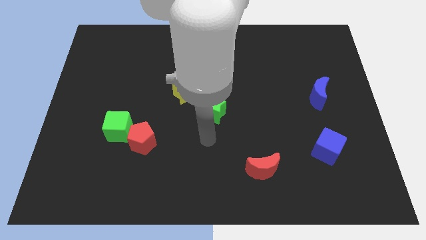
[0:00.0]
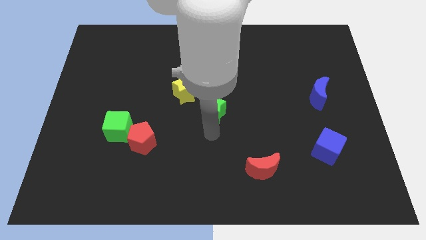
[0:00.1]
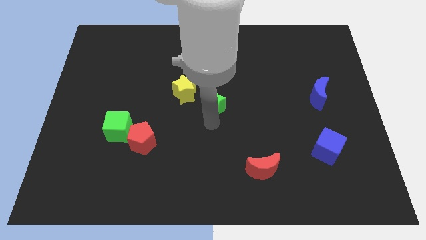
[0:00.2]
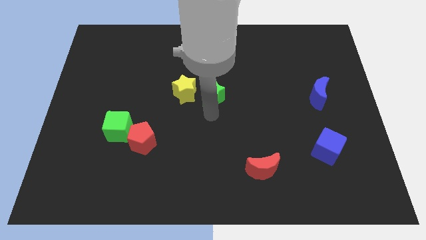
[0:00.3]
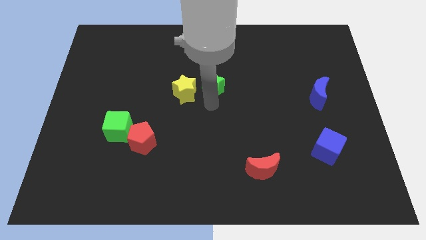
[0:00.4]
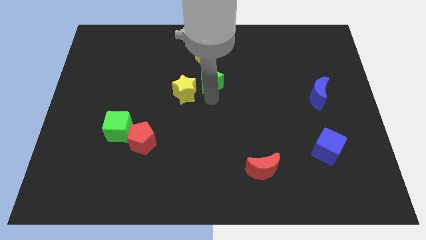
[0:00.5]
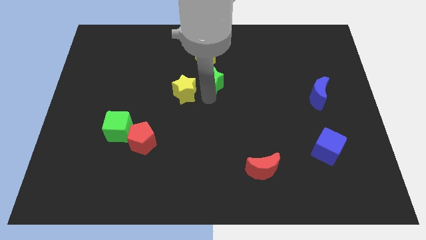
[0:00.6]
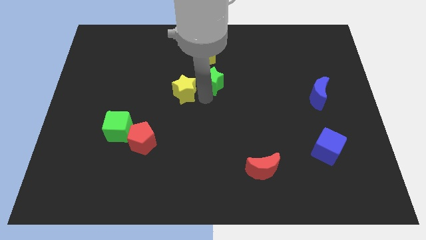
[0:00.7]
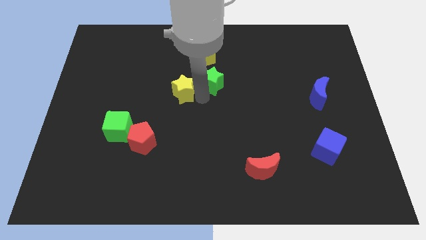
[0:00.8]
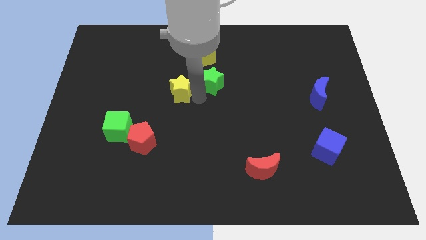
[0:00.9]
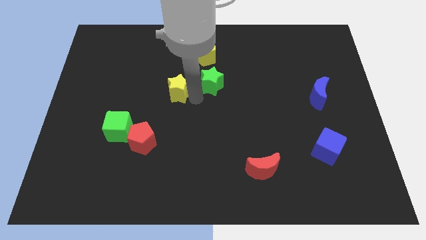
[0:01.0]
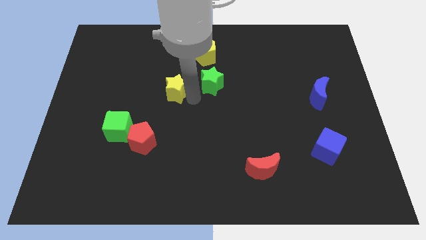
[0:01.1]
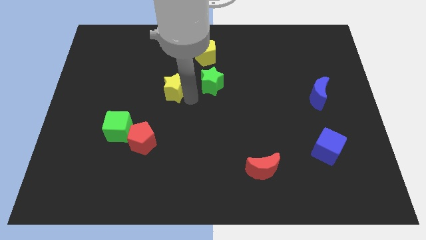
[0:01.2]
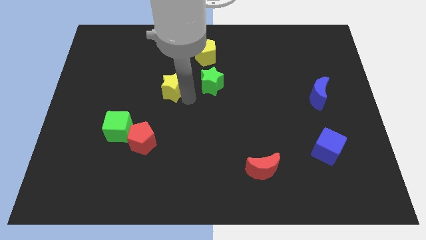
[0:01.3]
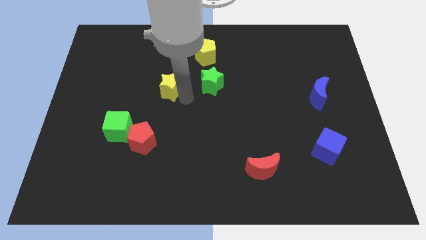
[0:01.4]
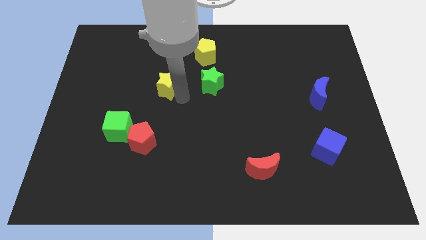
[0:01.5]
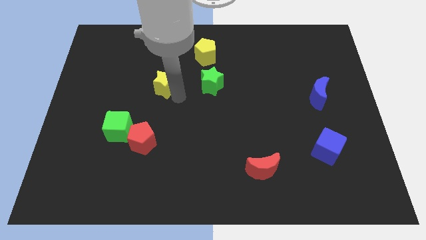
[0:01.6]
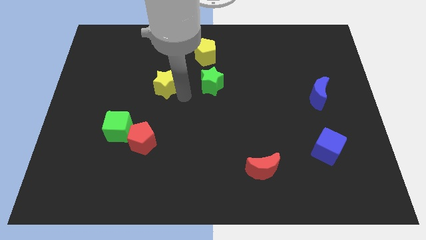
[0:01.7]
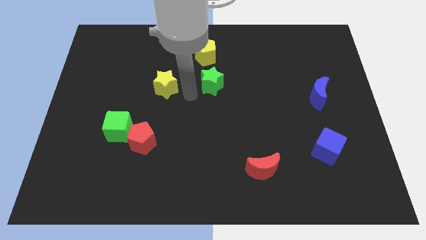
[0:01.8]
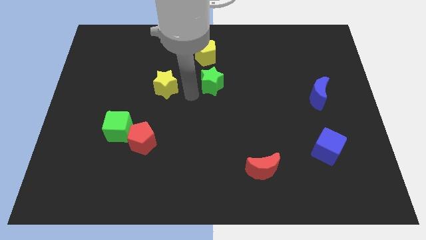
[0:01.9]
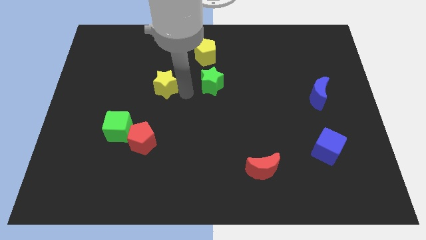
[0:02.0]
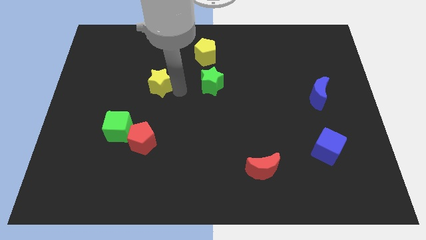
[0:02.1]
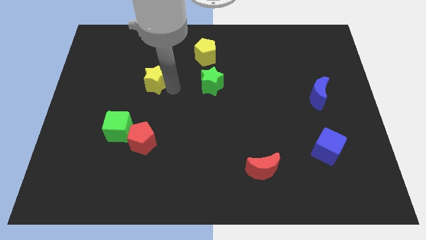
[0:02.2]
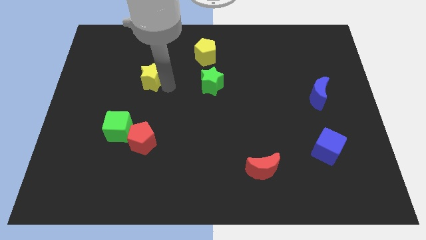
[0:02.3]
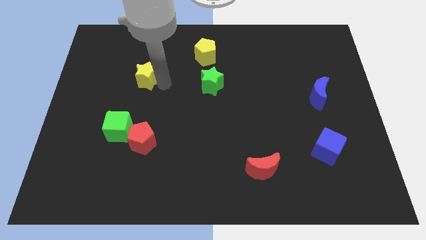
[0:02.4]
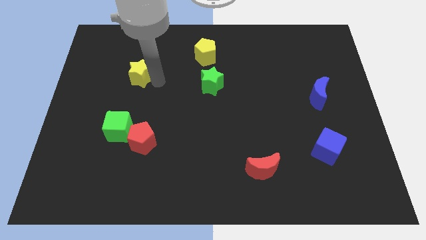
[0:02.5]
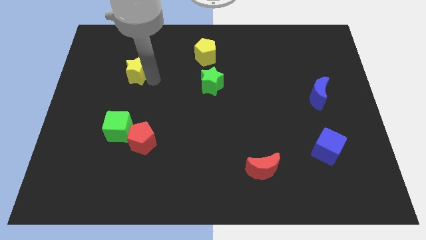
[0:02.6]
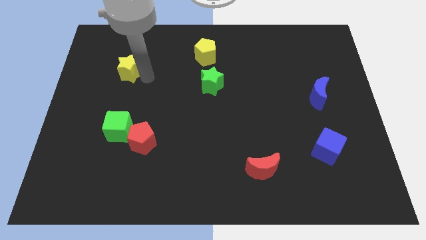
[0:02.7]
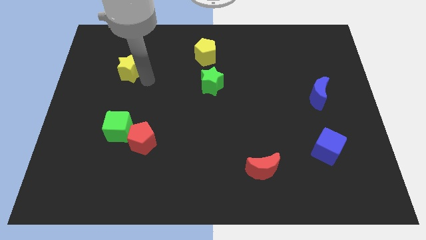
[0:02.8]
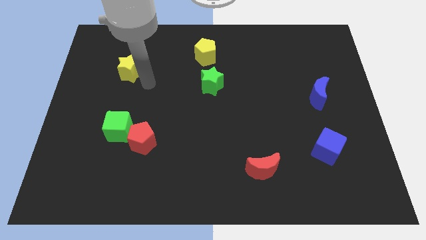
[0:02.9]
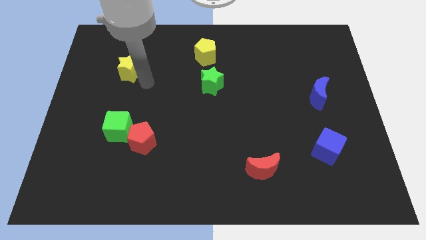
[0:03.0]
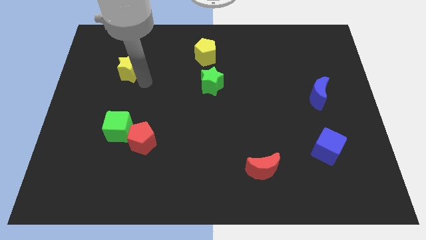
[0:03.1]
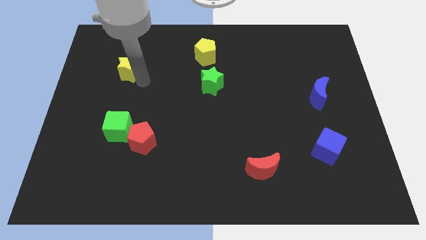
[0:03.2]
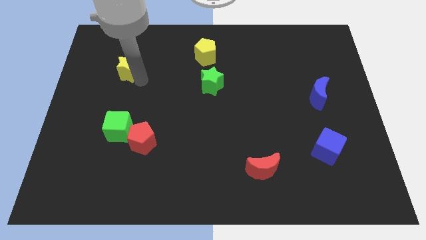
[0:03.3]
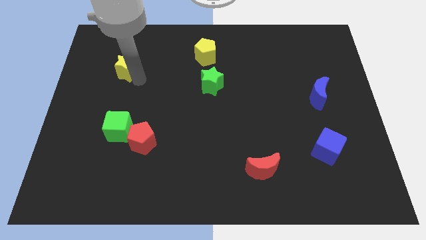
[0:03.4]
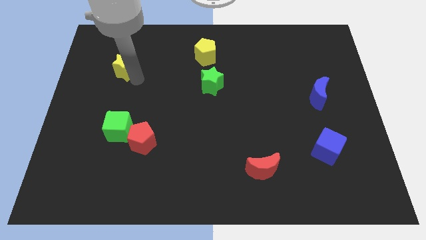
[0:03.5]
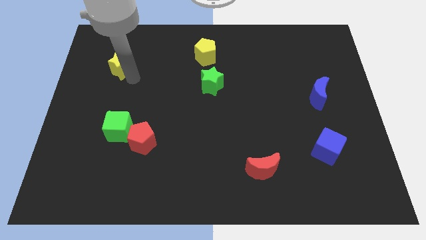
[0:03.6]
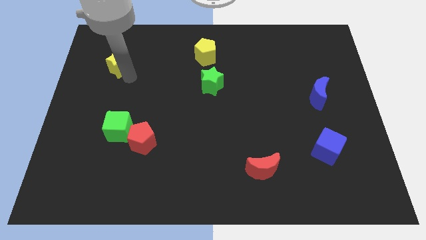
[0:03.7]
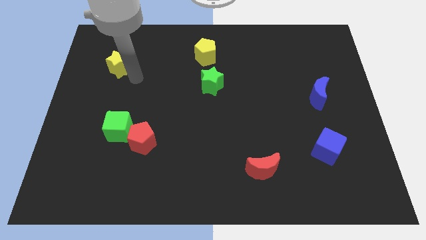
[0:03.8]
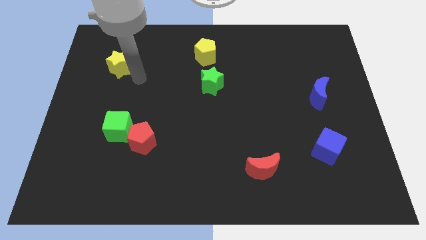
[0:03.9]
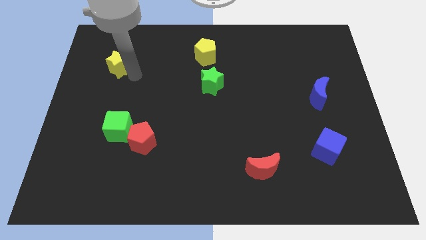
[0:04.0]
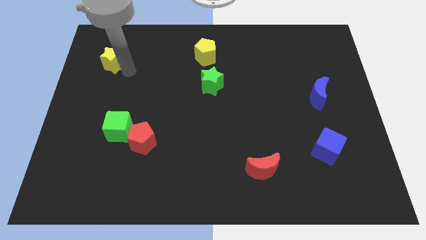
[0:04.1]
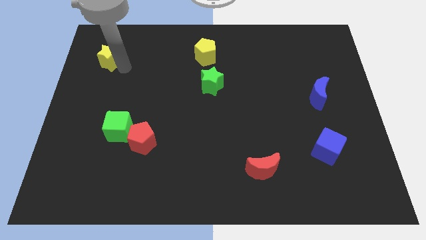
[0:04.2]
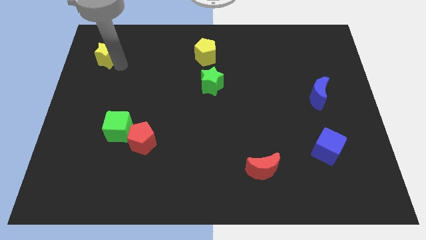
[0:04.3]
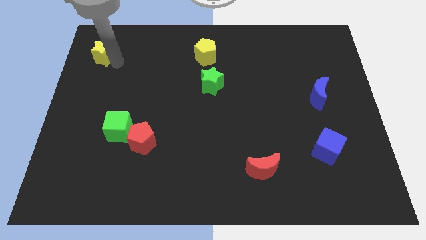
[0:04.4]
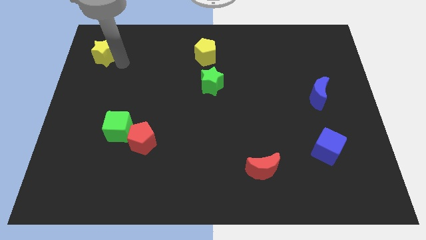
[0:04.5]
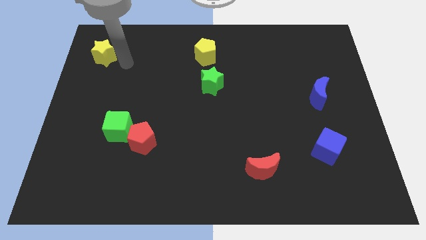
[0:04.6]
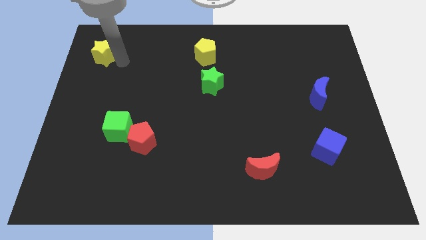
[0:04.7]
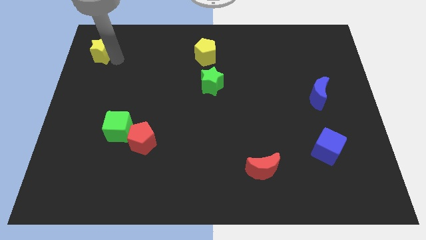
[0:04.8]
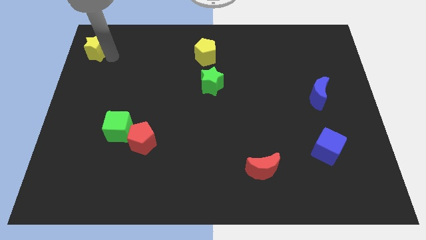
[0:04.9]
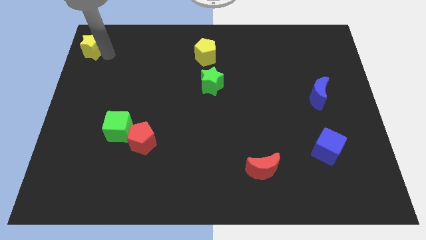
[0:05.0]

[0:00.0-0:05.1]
move the yellow star to the top left of the board

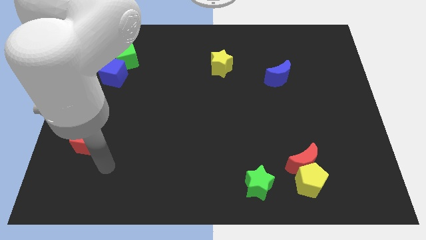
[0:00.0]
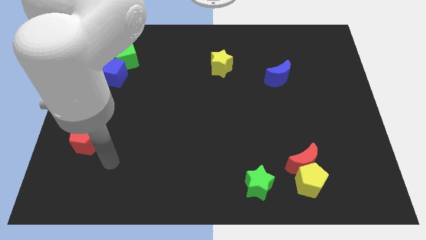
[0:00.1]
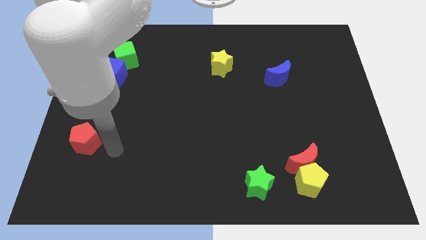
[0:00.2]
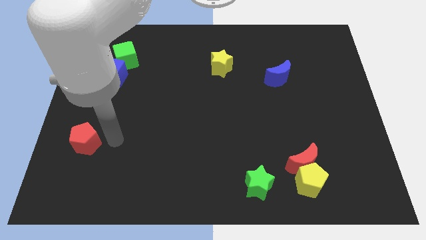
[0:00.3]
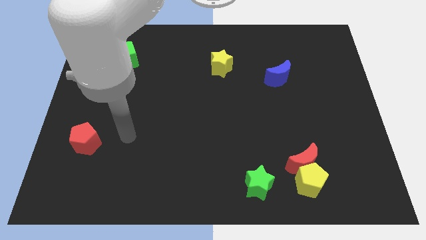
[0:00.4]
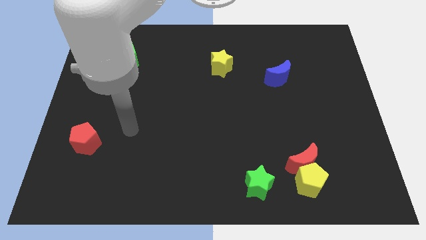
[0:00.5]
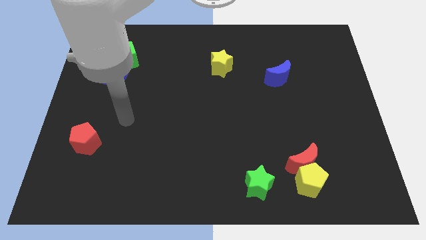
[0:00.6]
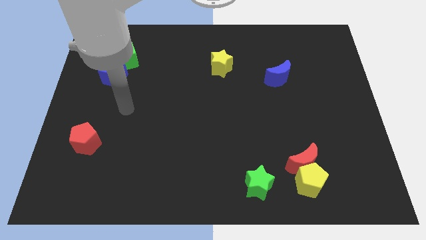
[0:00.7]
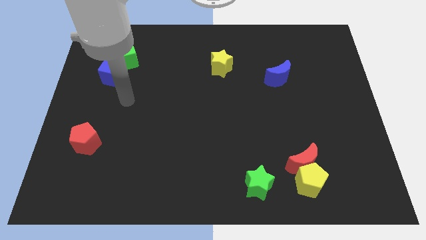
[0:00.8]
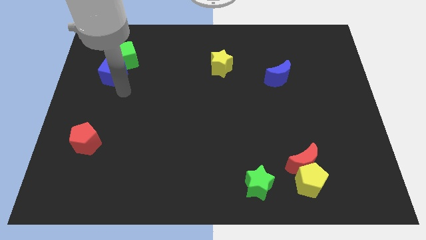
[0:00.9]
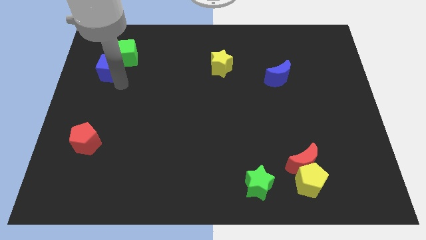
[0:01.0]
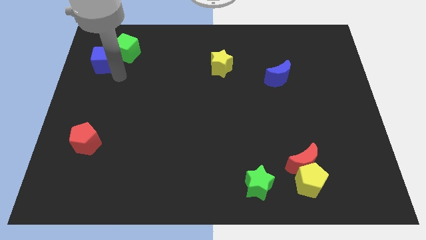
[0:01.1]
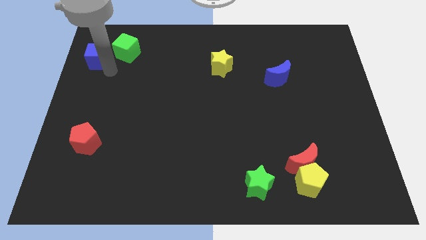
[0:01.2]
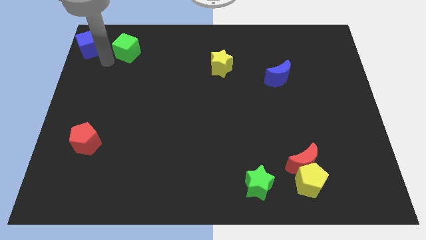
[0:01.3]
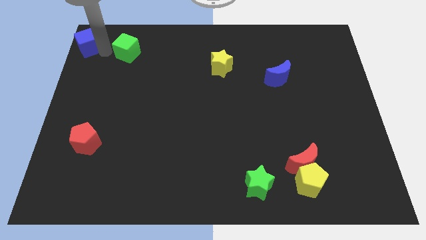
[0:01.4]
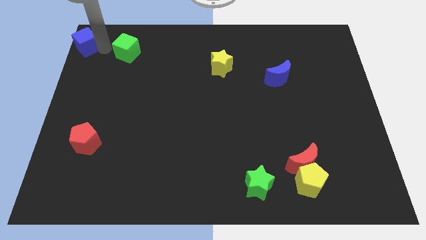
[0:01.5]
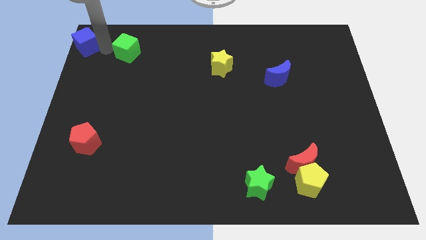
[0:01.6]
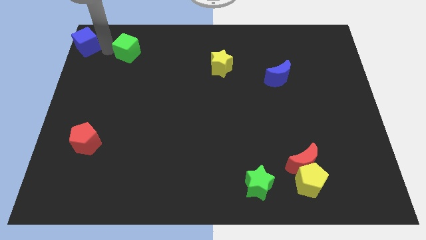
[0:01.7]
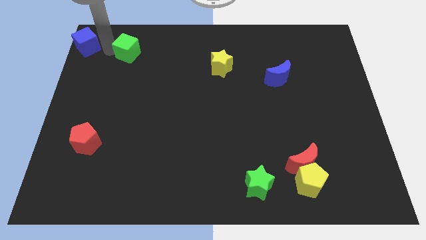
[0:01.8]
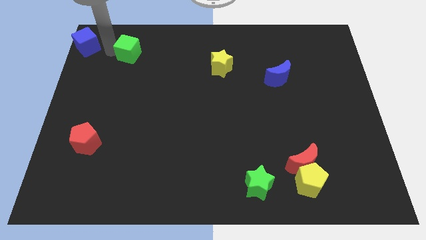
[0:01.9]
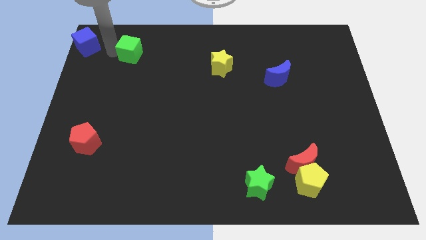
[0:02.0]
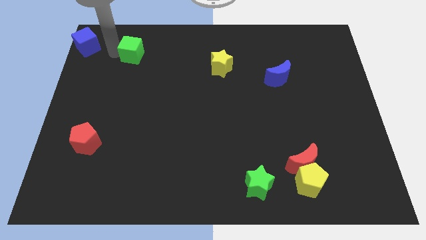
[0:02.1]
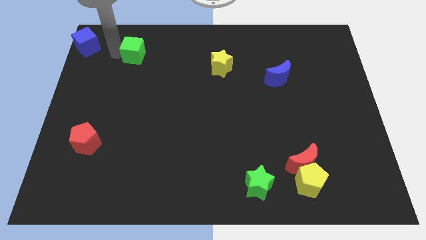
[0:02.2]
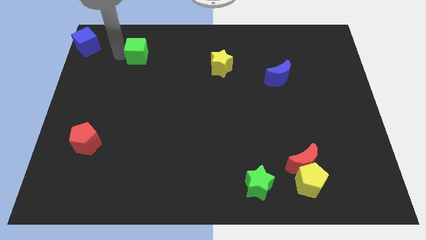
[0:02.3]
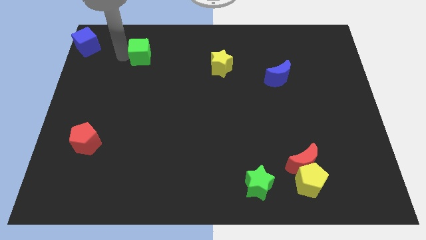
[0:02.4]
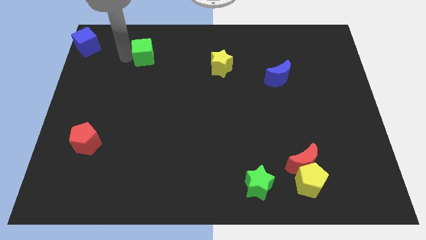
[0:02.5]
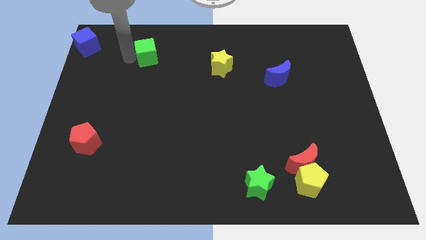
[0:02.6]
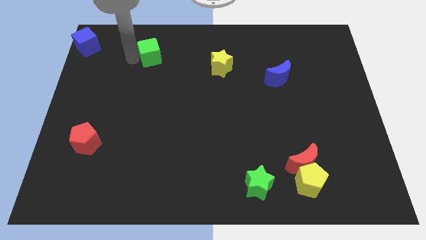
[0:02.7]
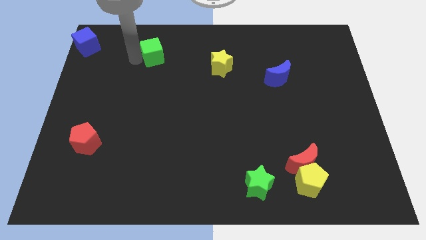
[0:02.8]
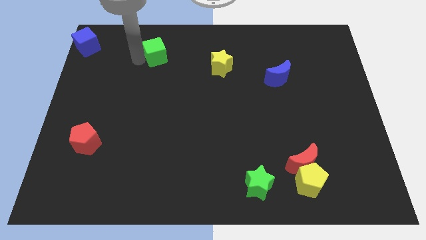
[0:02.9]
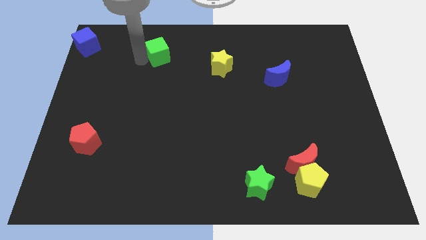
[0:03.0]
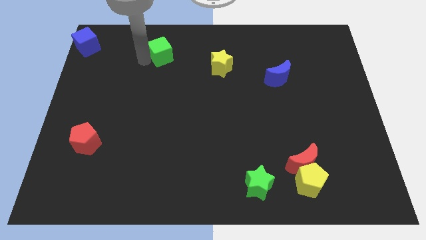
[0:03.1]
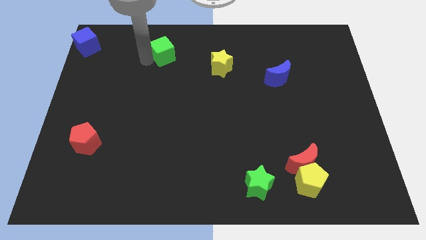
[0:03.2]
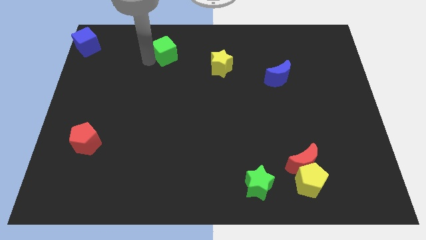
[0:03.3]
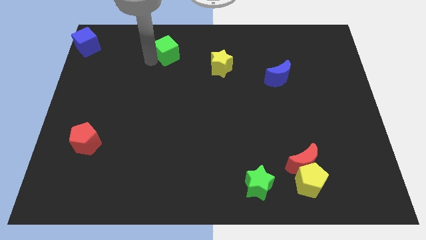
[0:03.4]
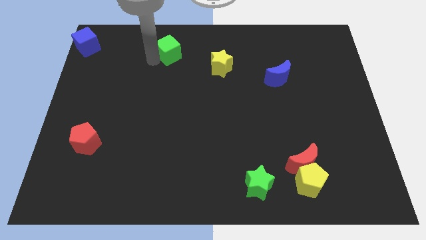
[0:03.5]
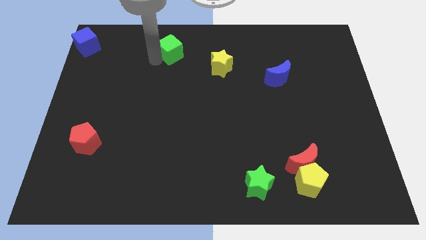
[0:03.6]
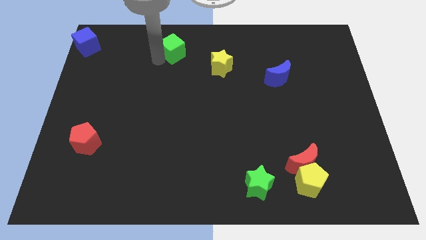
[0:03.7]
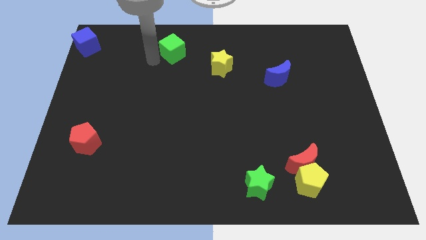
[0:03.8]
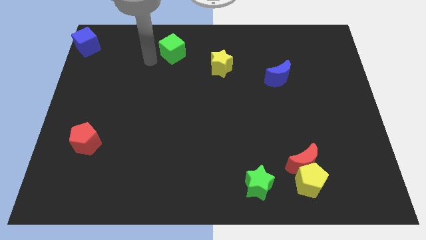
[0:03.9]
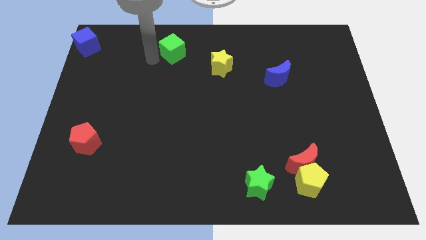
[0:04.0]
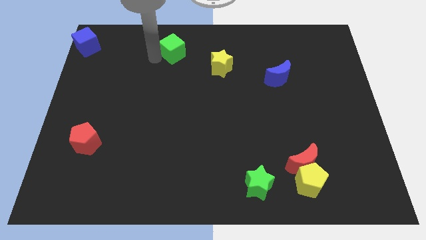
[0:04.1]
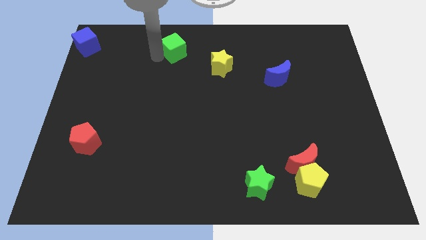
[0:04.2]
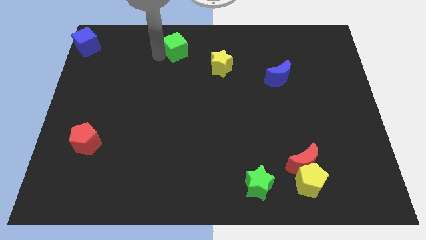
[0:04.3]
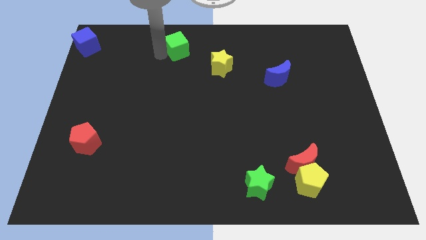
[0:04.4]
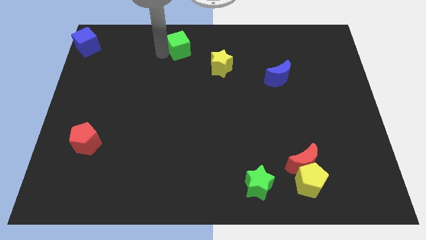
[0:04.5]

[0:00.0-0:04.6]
slide the green cube to the top
